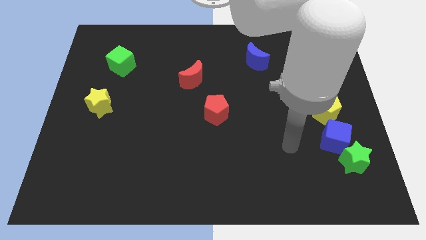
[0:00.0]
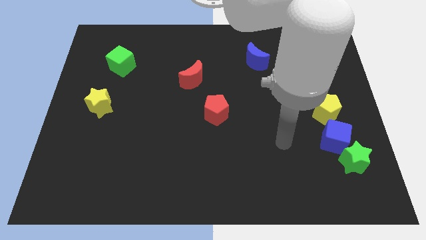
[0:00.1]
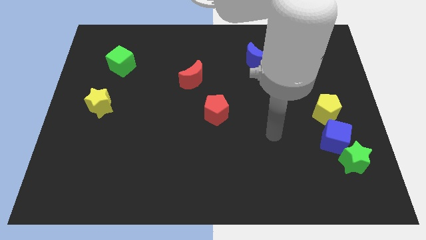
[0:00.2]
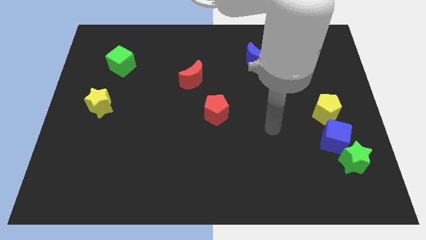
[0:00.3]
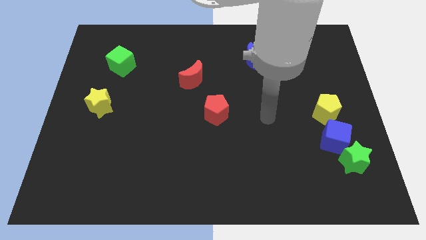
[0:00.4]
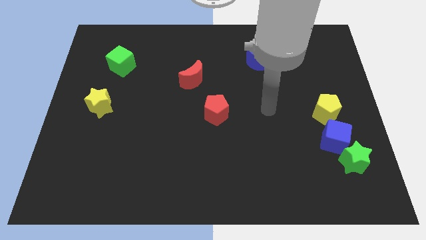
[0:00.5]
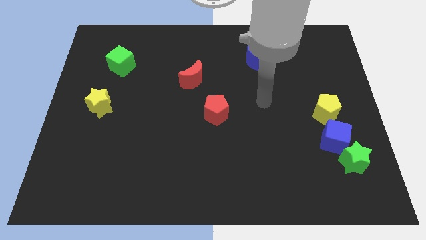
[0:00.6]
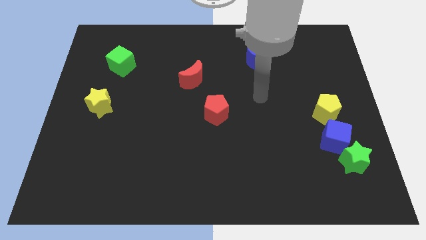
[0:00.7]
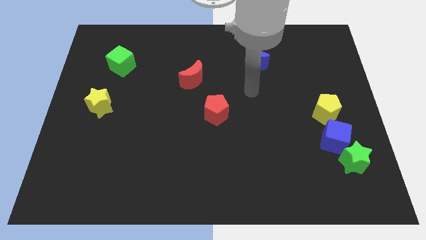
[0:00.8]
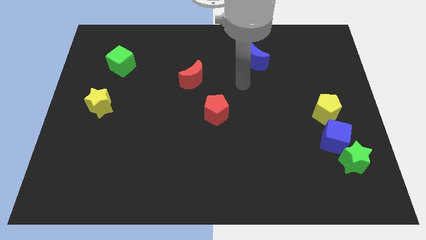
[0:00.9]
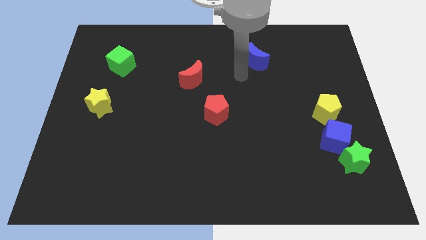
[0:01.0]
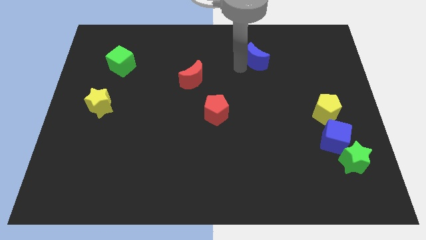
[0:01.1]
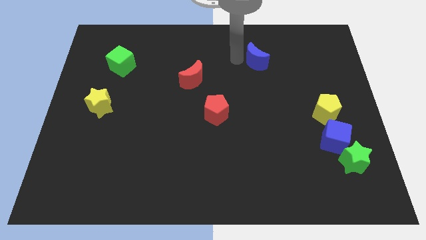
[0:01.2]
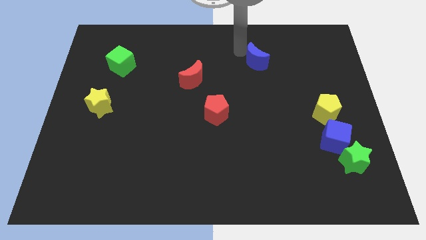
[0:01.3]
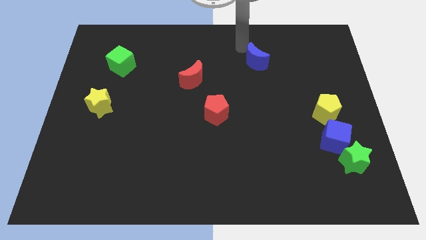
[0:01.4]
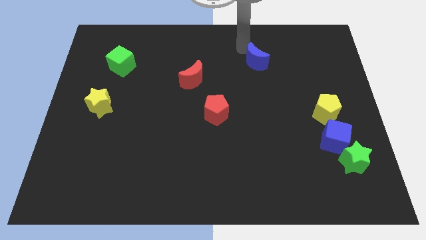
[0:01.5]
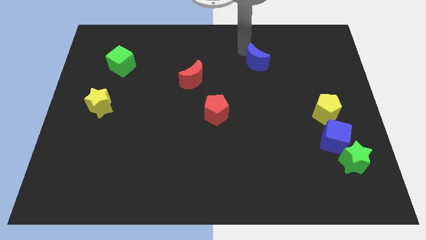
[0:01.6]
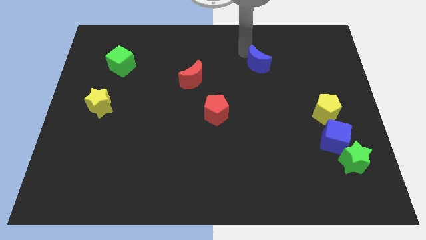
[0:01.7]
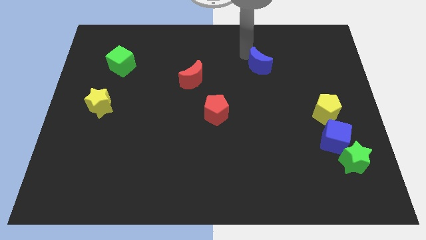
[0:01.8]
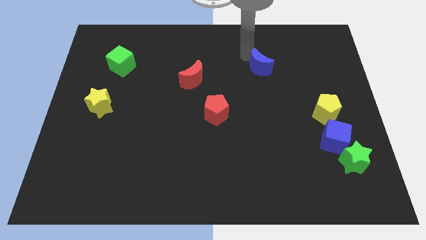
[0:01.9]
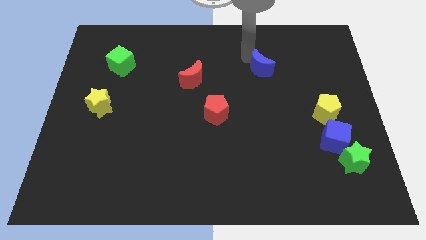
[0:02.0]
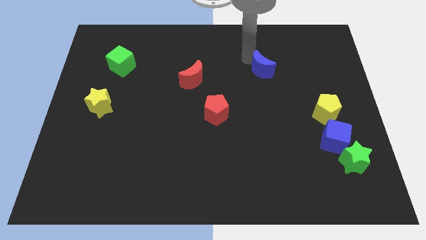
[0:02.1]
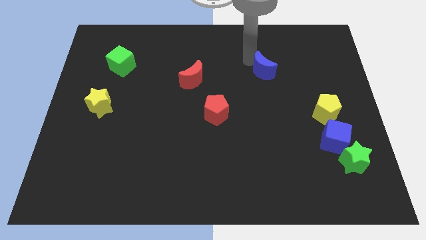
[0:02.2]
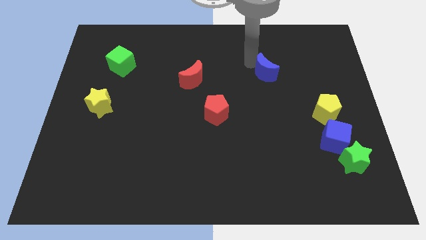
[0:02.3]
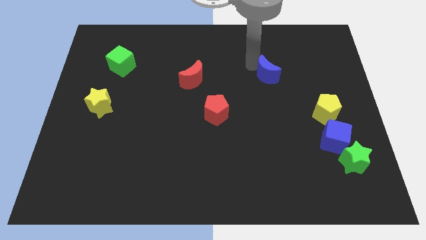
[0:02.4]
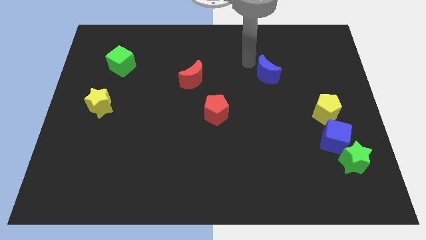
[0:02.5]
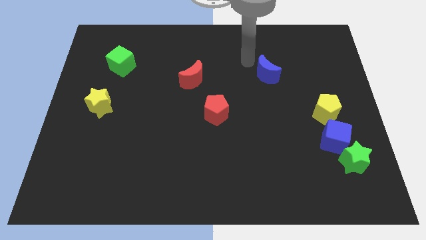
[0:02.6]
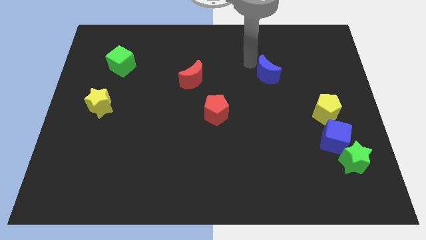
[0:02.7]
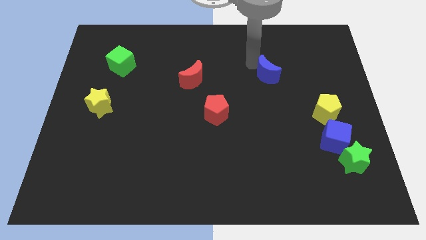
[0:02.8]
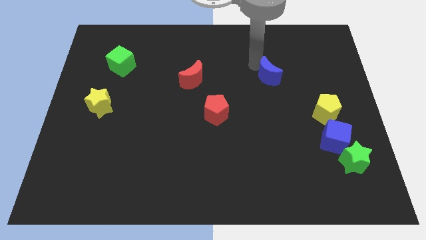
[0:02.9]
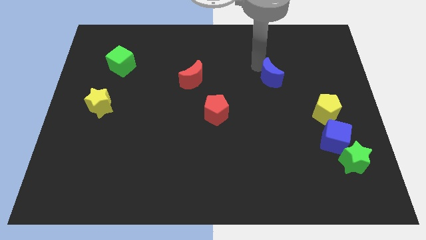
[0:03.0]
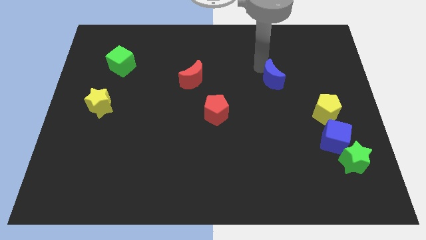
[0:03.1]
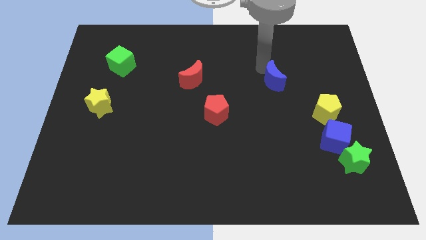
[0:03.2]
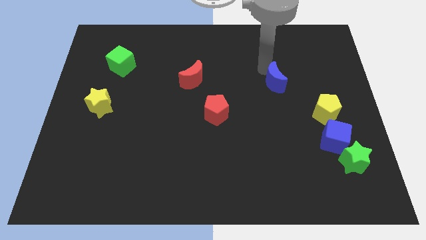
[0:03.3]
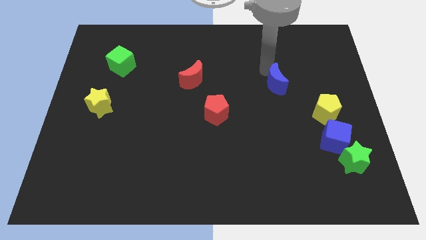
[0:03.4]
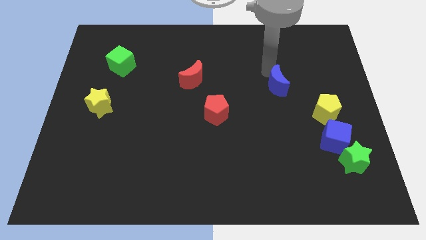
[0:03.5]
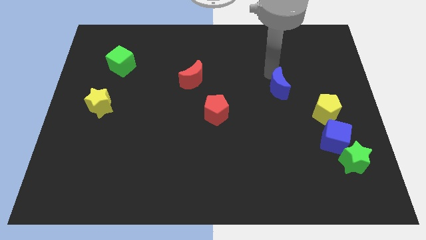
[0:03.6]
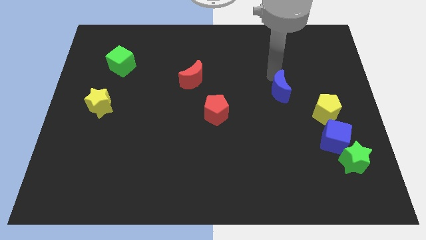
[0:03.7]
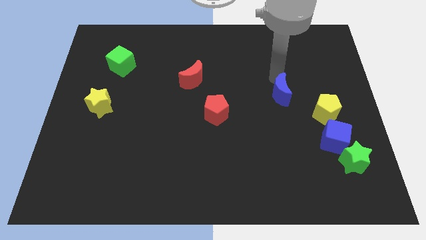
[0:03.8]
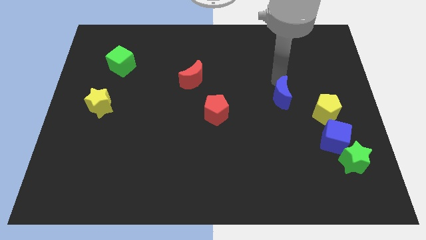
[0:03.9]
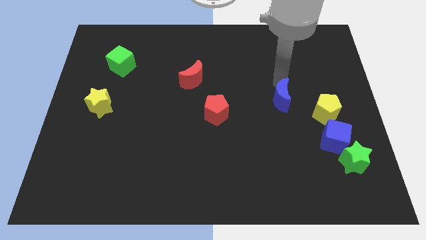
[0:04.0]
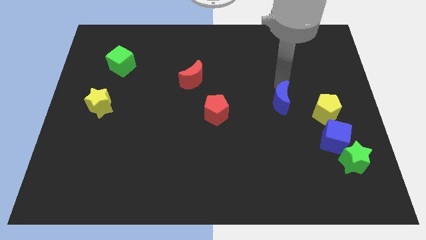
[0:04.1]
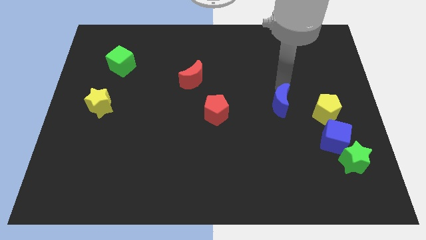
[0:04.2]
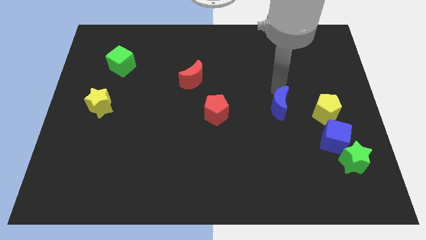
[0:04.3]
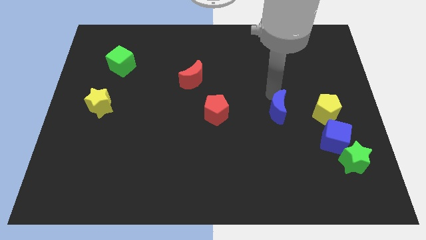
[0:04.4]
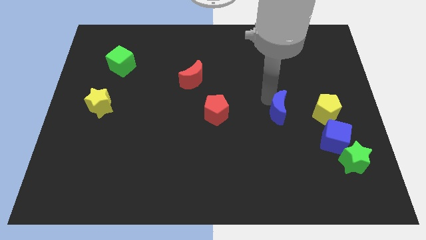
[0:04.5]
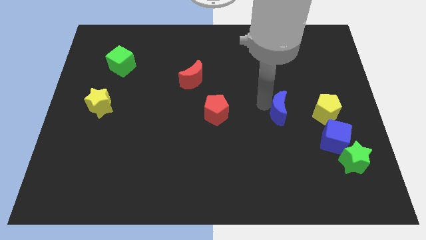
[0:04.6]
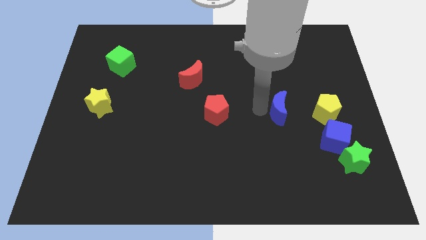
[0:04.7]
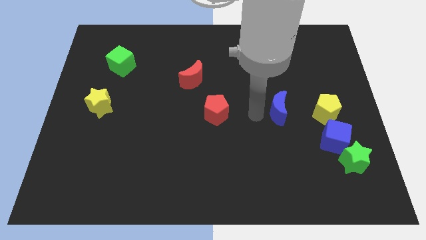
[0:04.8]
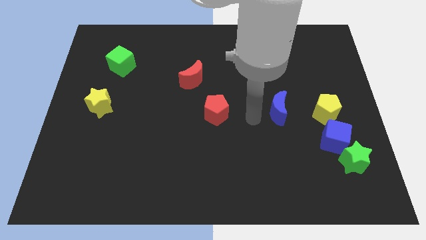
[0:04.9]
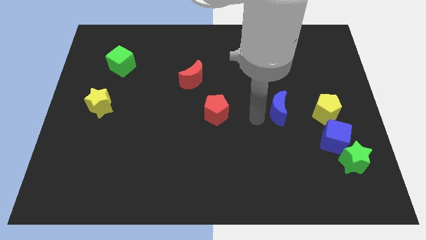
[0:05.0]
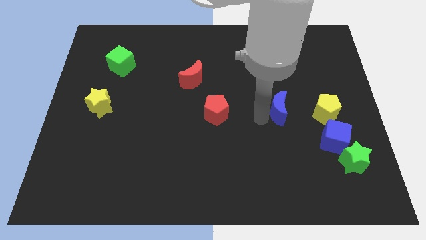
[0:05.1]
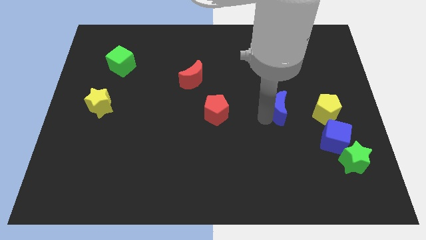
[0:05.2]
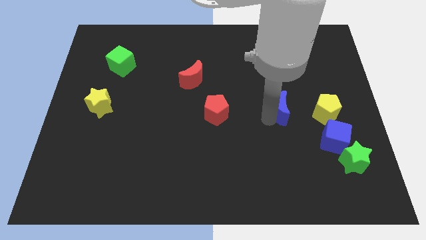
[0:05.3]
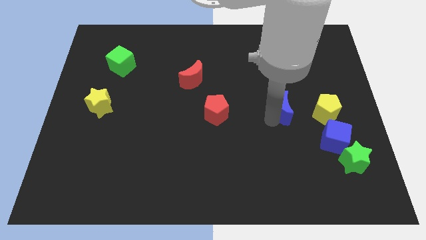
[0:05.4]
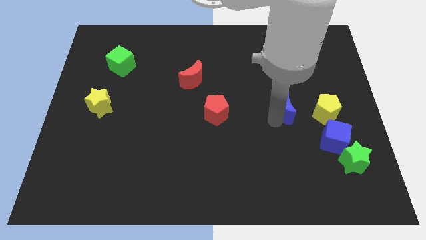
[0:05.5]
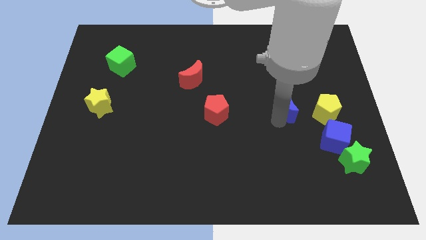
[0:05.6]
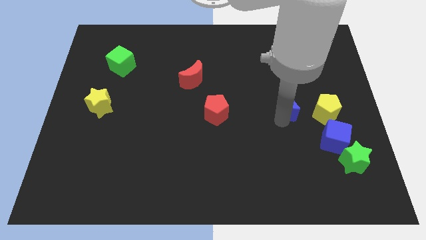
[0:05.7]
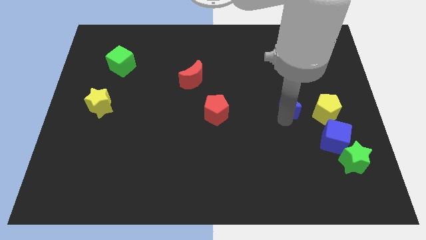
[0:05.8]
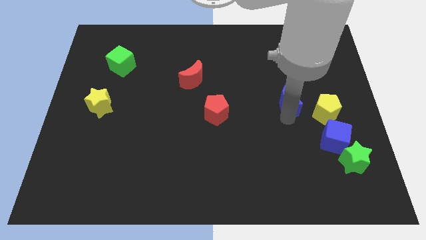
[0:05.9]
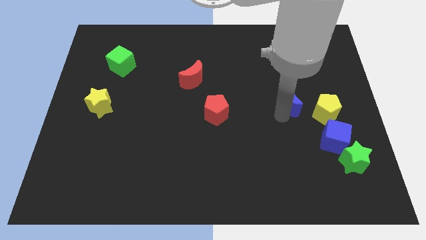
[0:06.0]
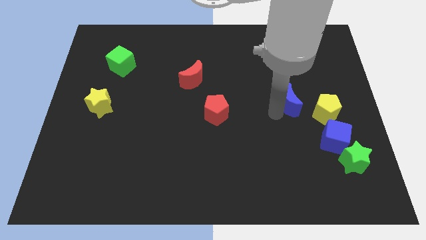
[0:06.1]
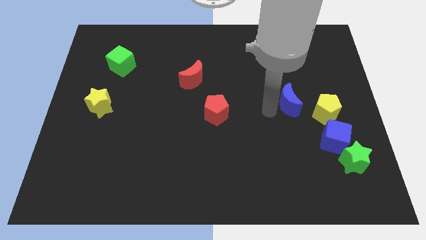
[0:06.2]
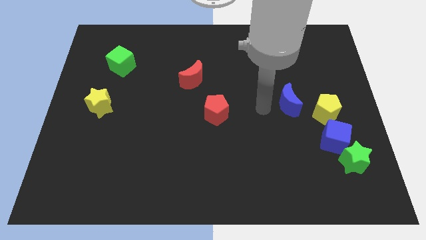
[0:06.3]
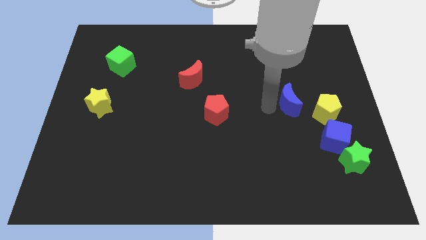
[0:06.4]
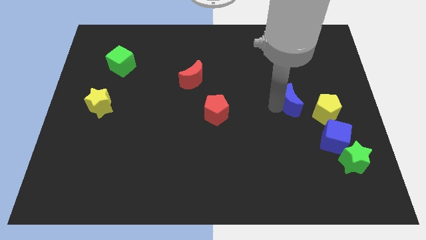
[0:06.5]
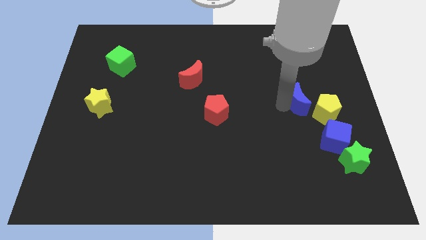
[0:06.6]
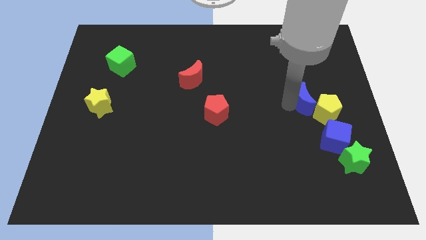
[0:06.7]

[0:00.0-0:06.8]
put the blue moon towards the yellow pentagon
